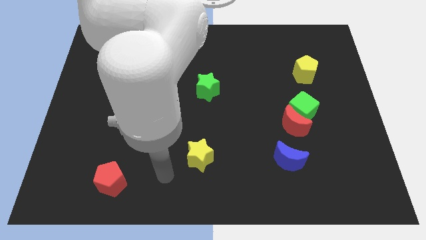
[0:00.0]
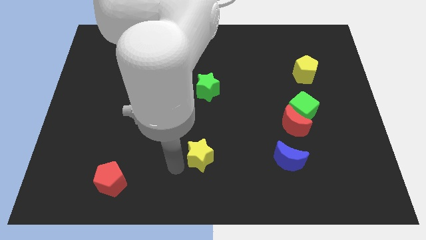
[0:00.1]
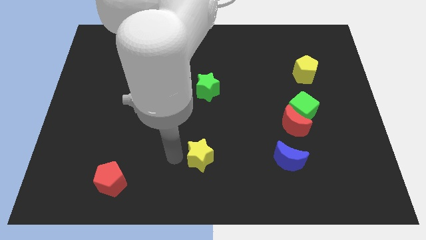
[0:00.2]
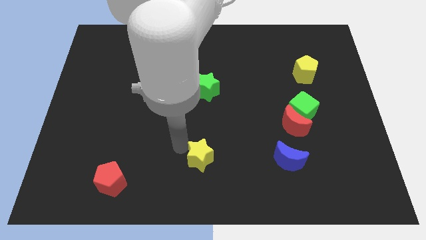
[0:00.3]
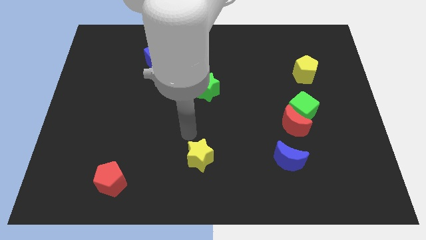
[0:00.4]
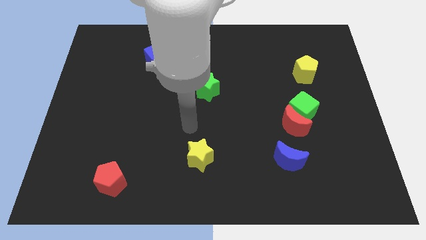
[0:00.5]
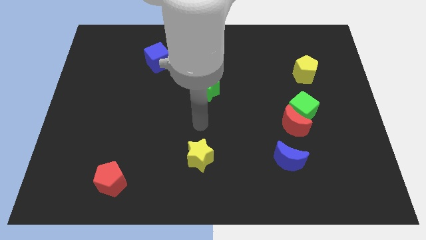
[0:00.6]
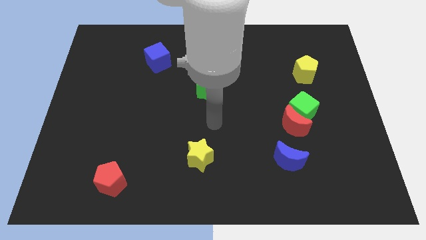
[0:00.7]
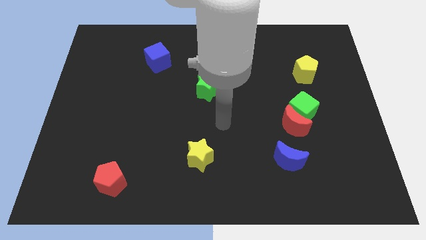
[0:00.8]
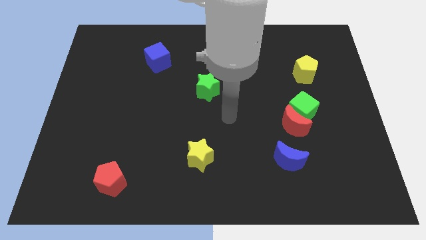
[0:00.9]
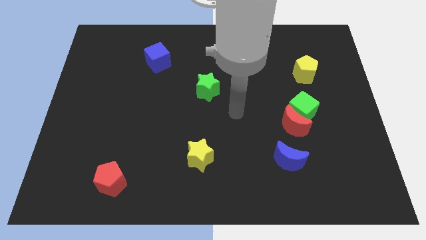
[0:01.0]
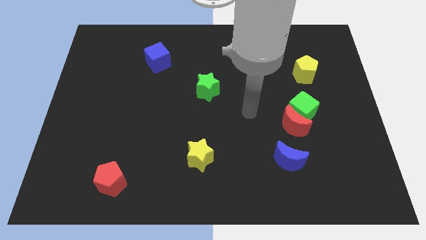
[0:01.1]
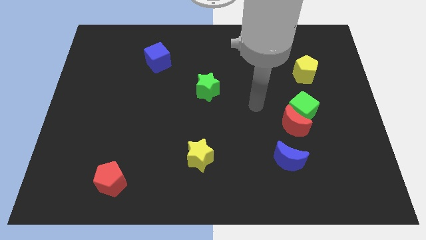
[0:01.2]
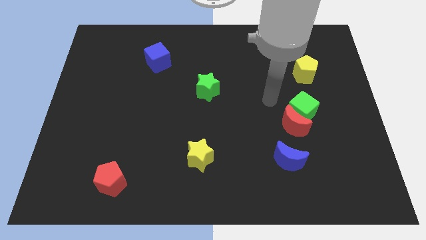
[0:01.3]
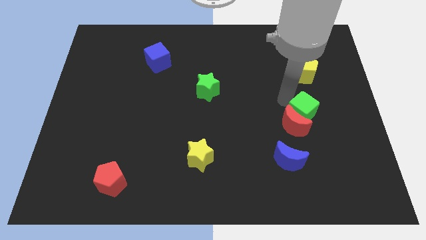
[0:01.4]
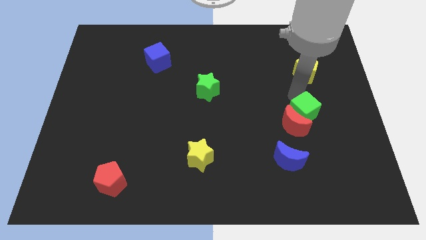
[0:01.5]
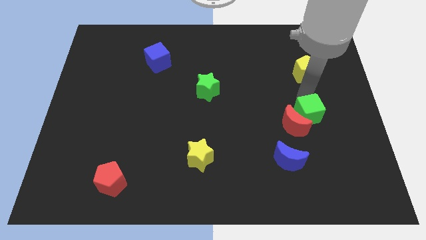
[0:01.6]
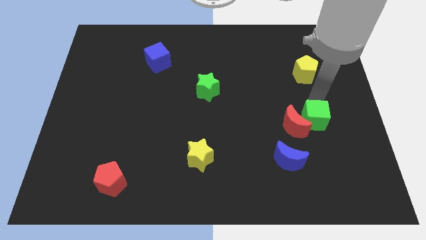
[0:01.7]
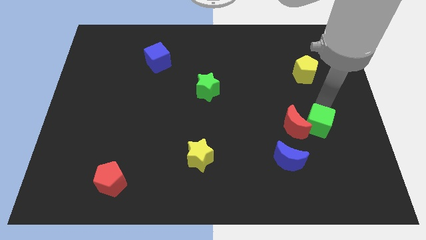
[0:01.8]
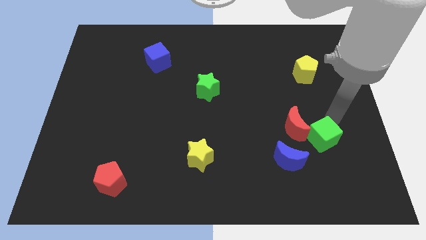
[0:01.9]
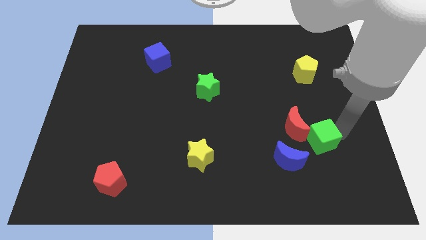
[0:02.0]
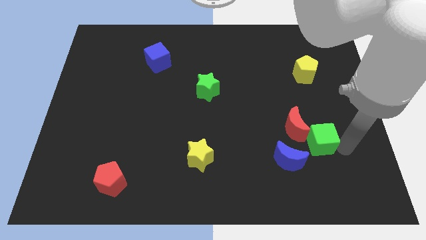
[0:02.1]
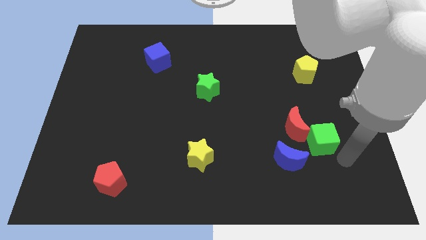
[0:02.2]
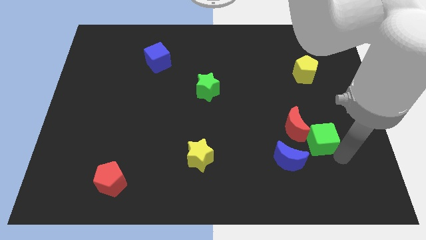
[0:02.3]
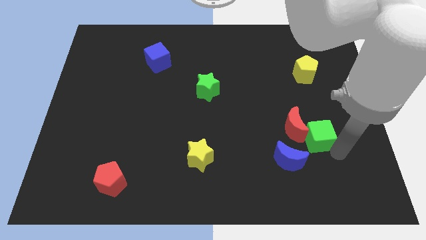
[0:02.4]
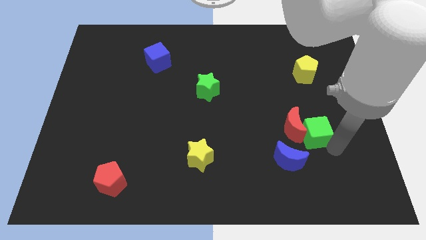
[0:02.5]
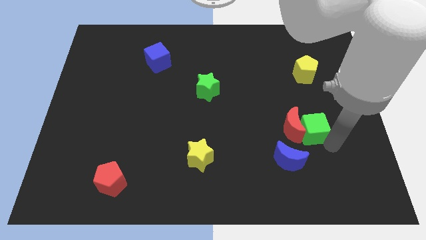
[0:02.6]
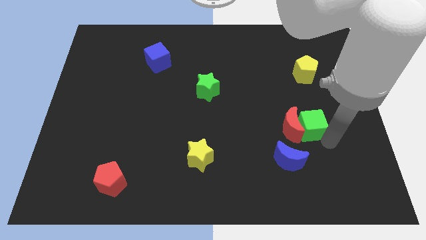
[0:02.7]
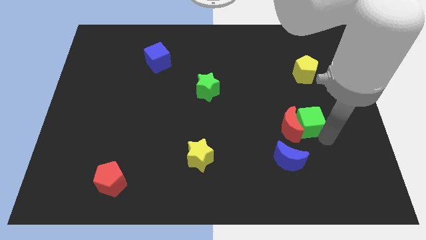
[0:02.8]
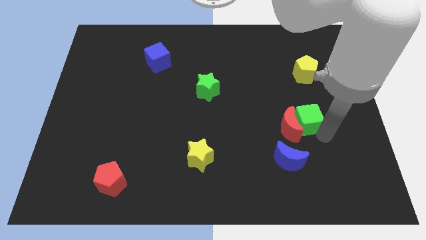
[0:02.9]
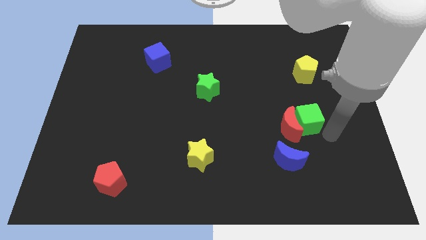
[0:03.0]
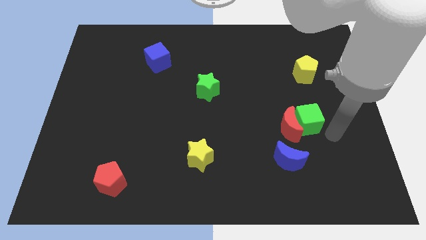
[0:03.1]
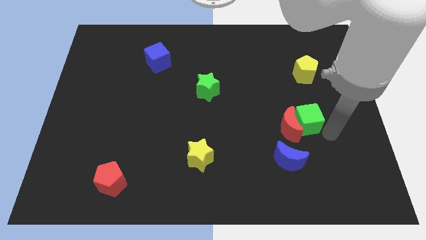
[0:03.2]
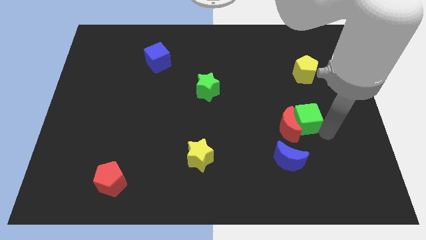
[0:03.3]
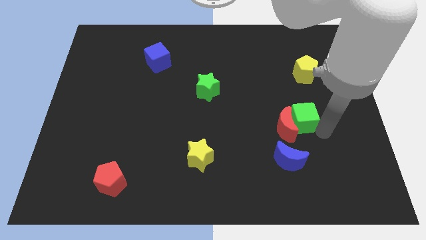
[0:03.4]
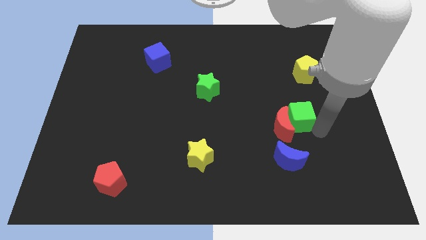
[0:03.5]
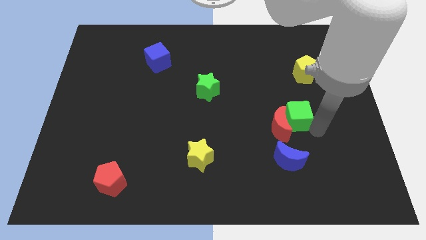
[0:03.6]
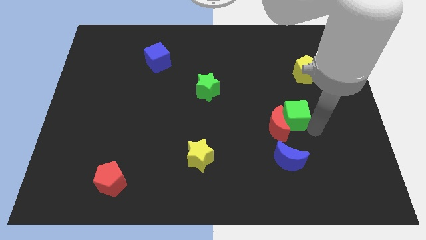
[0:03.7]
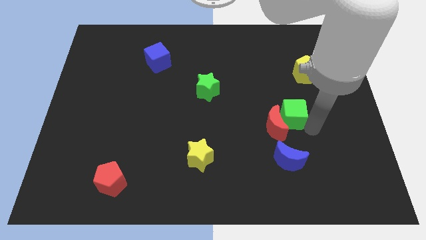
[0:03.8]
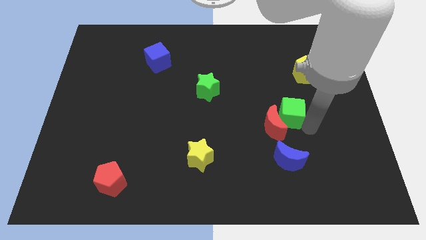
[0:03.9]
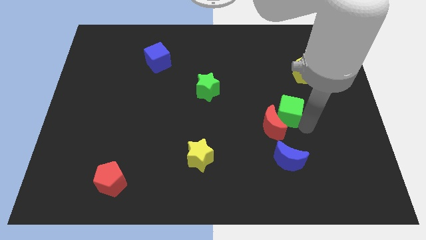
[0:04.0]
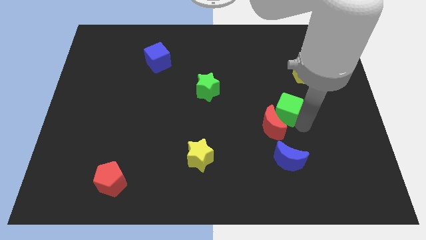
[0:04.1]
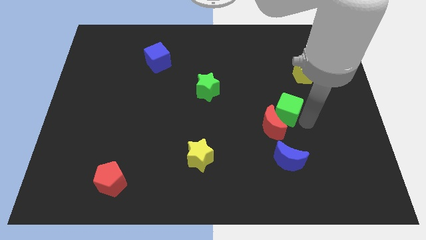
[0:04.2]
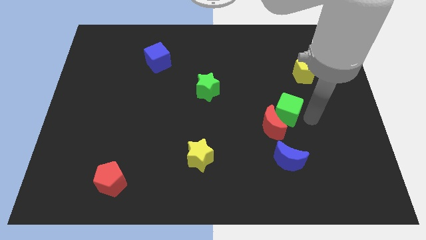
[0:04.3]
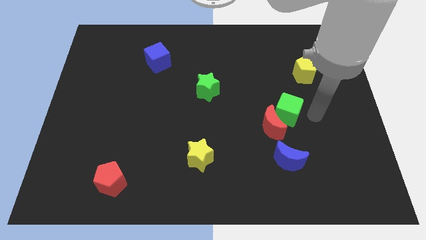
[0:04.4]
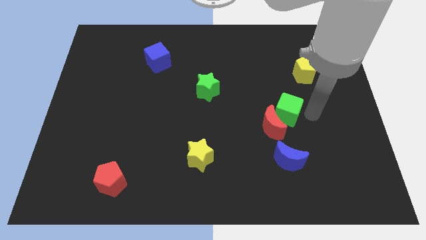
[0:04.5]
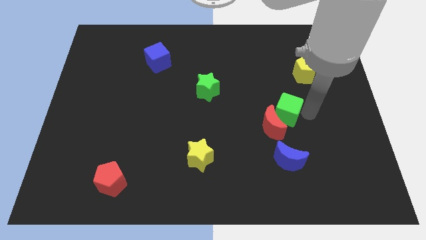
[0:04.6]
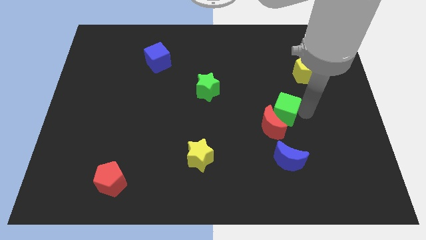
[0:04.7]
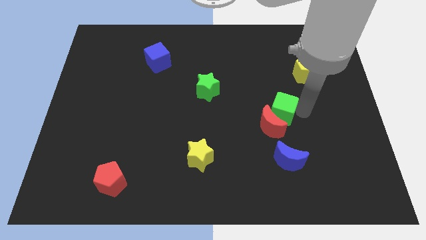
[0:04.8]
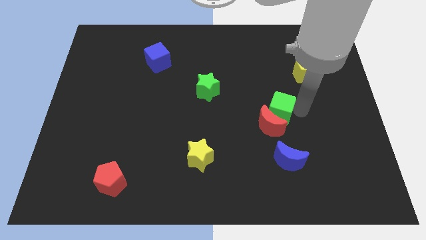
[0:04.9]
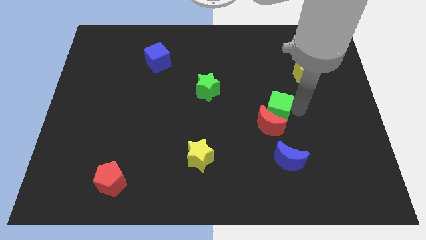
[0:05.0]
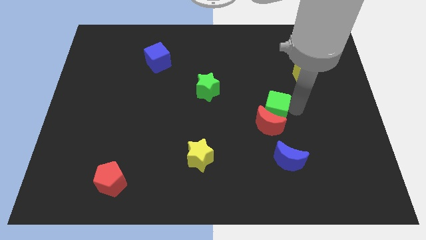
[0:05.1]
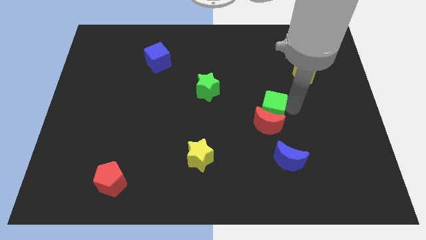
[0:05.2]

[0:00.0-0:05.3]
slide the green cube a little left

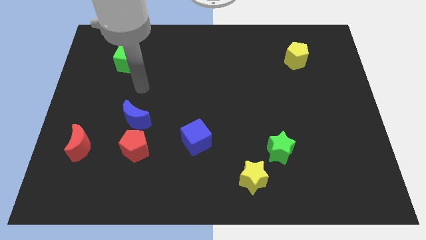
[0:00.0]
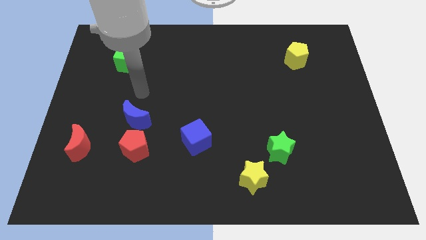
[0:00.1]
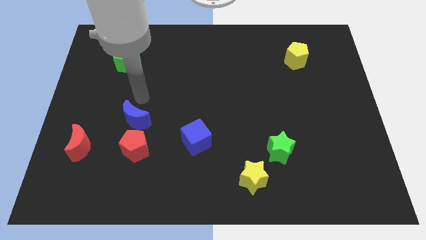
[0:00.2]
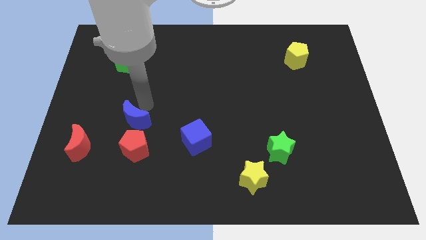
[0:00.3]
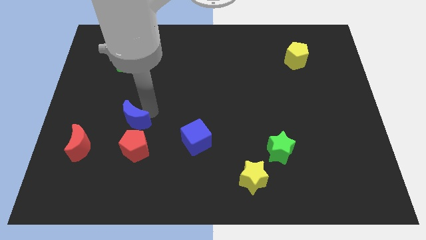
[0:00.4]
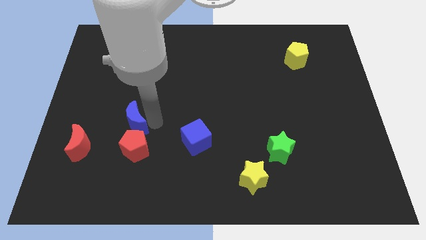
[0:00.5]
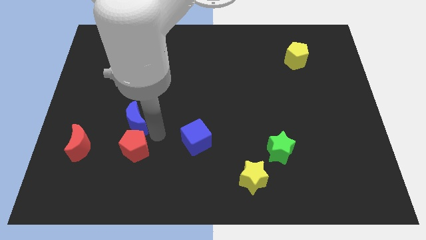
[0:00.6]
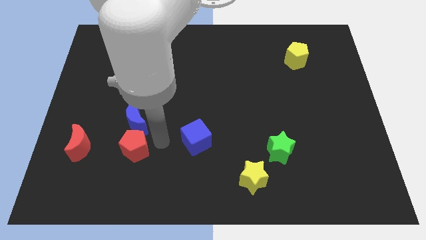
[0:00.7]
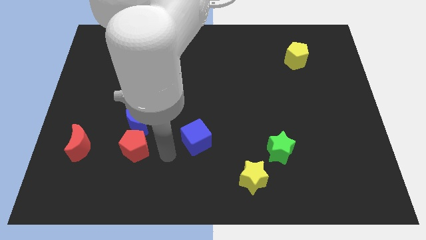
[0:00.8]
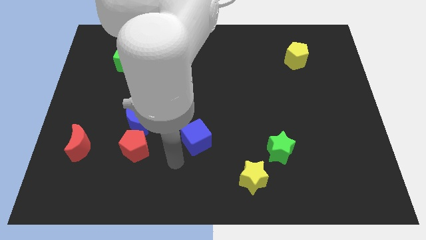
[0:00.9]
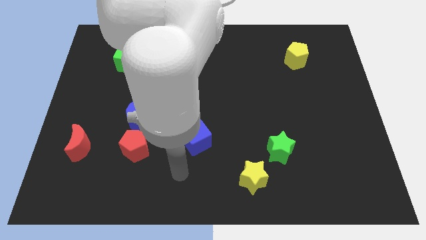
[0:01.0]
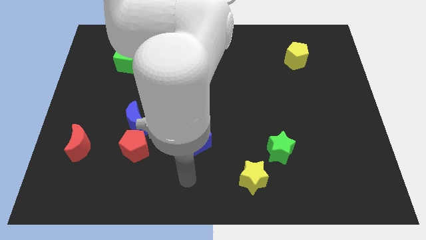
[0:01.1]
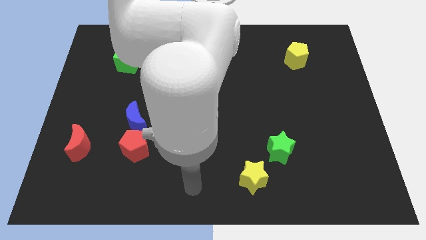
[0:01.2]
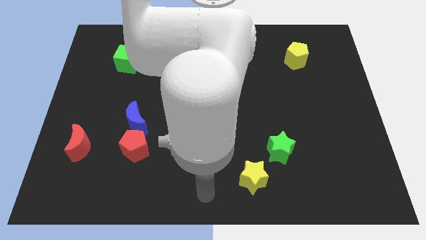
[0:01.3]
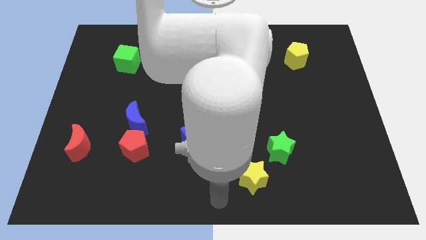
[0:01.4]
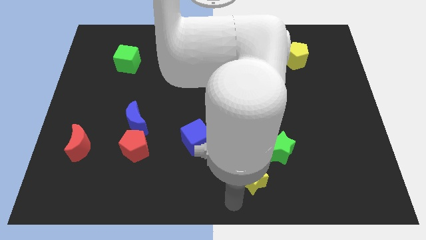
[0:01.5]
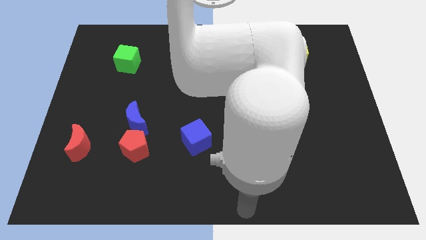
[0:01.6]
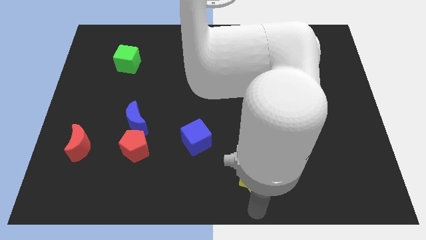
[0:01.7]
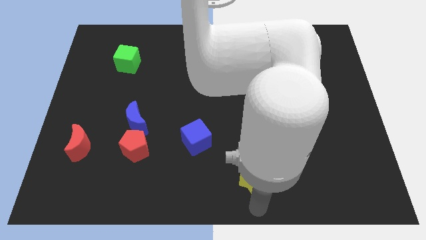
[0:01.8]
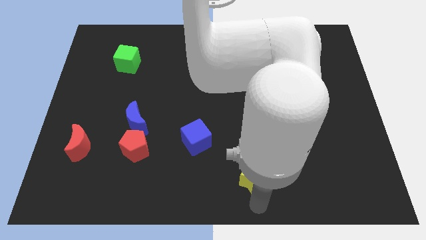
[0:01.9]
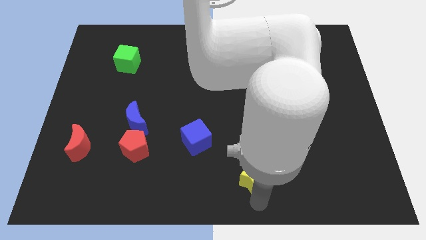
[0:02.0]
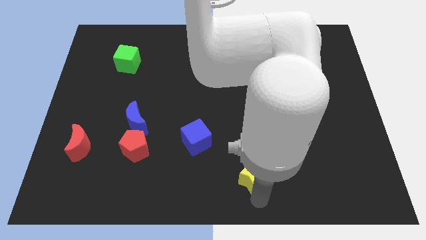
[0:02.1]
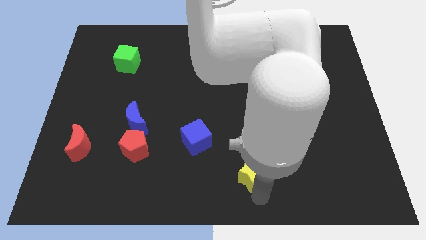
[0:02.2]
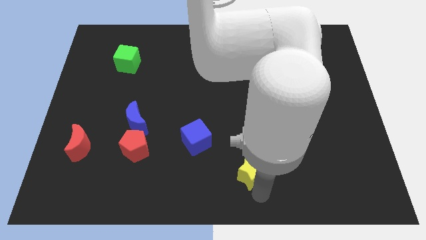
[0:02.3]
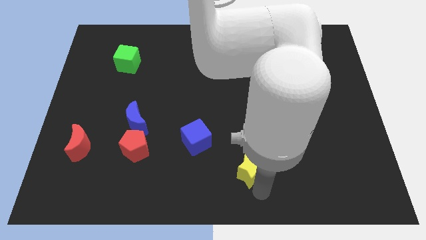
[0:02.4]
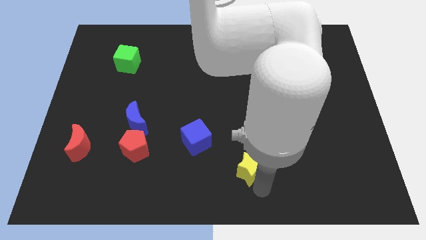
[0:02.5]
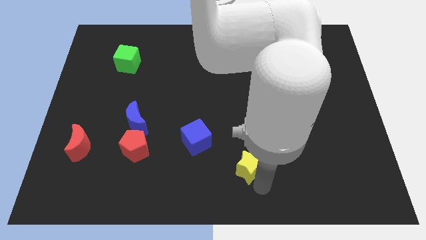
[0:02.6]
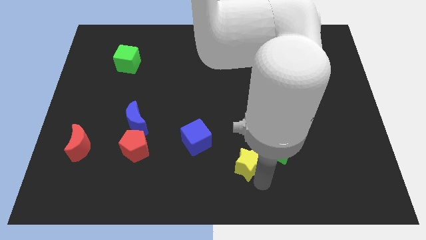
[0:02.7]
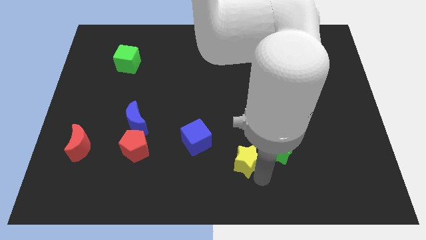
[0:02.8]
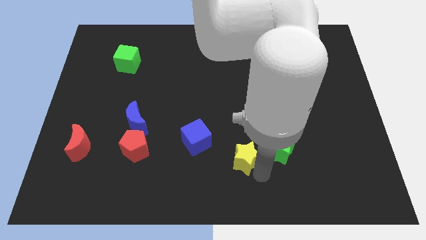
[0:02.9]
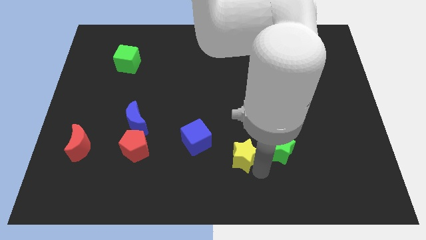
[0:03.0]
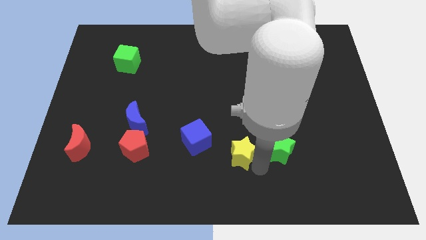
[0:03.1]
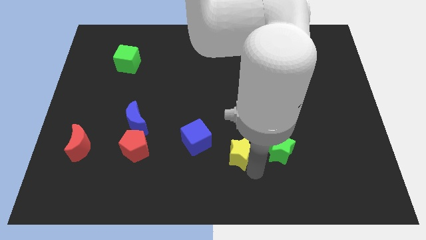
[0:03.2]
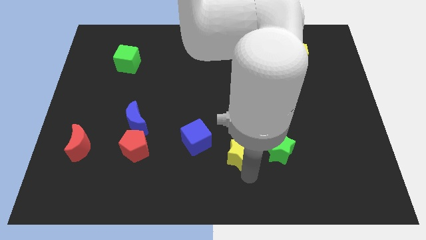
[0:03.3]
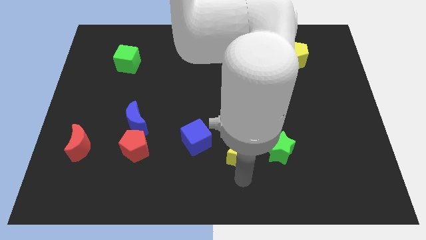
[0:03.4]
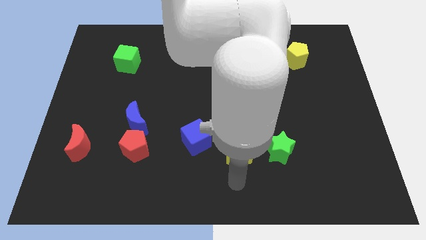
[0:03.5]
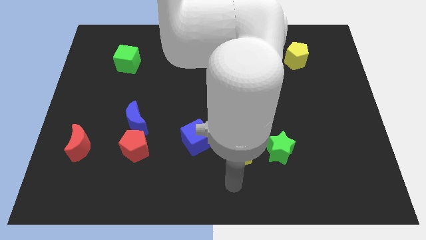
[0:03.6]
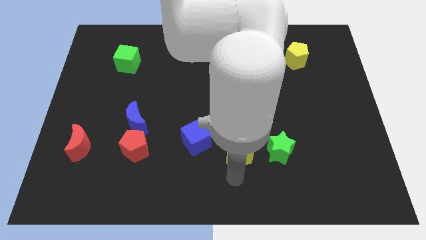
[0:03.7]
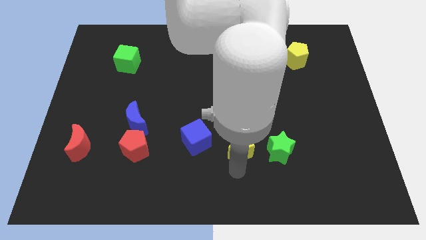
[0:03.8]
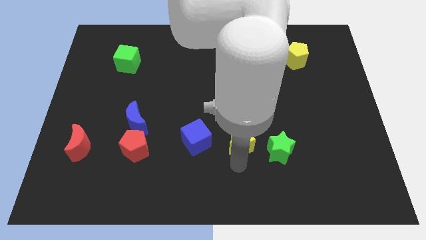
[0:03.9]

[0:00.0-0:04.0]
move the yellow star slightly upwards
